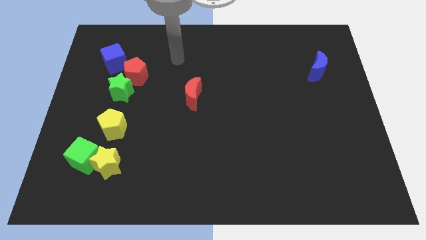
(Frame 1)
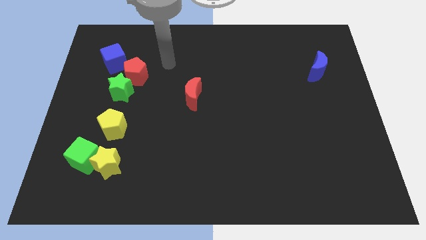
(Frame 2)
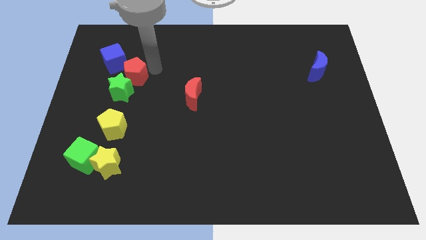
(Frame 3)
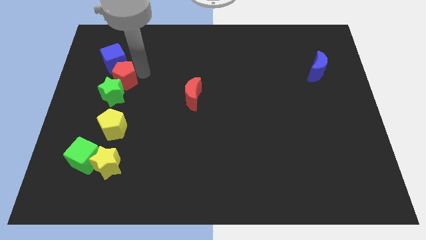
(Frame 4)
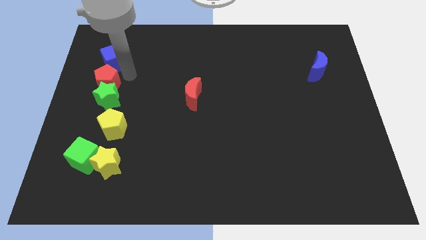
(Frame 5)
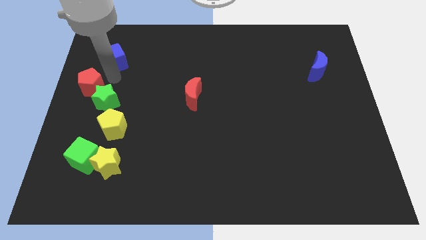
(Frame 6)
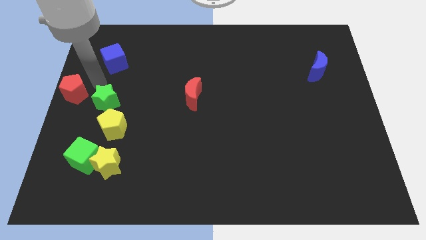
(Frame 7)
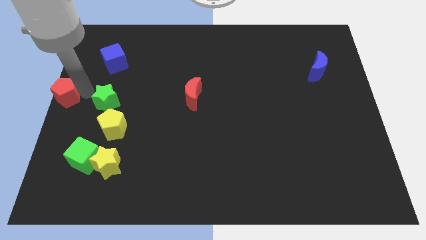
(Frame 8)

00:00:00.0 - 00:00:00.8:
separate the green star from the red pentagon

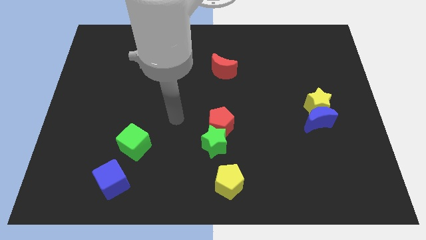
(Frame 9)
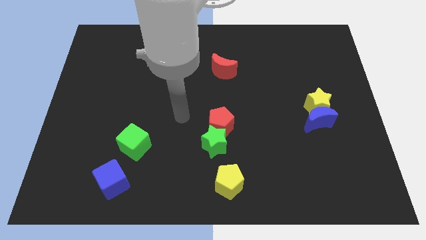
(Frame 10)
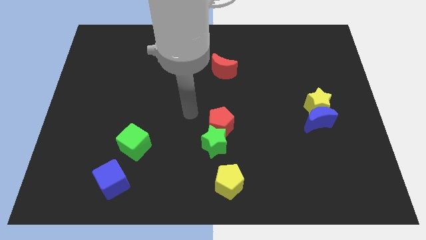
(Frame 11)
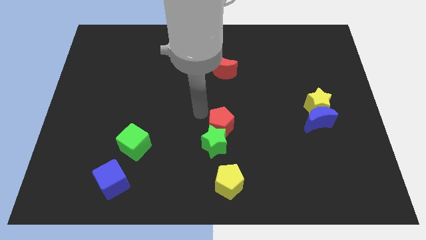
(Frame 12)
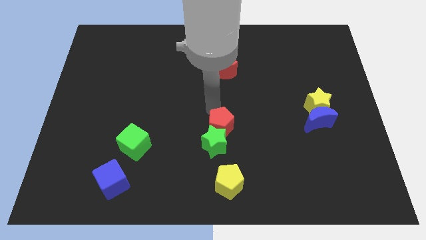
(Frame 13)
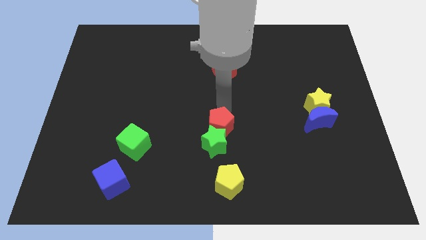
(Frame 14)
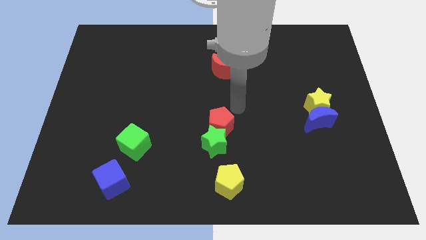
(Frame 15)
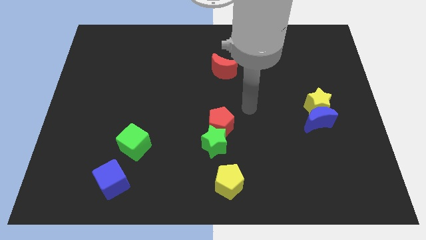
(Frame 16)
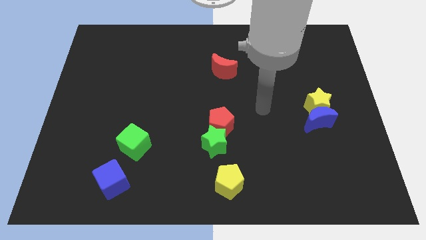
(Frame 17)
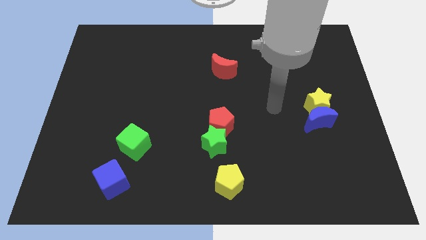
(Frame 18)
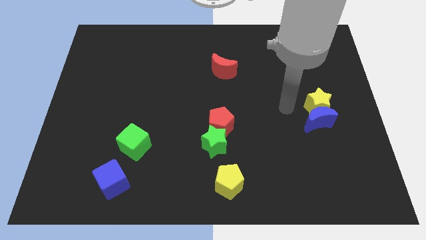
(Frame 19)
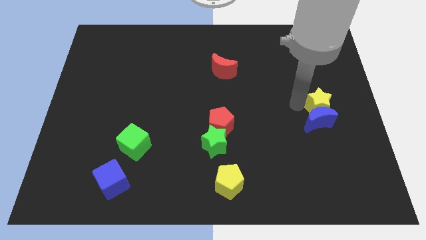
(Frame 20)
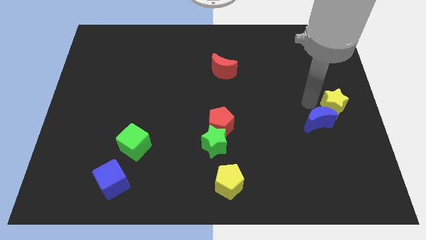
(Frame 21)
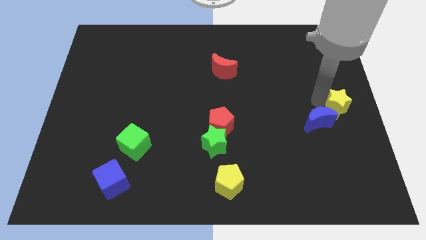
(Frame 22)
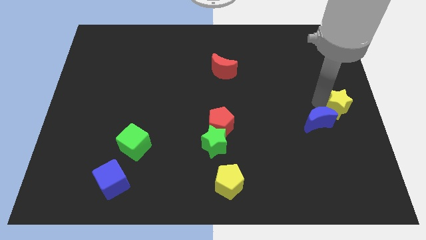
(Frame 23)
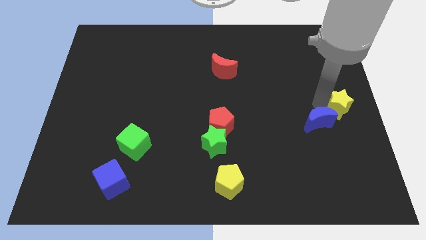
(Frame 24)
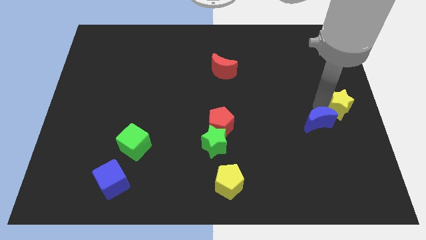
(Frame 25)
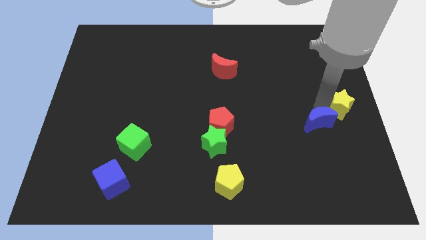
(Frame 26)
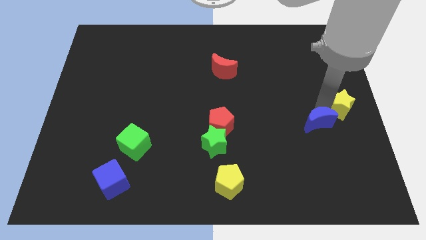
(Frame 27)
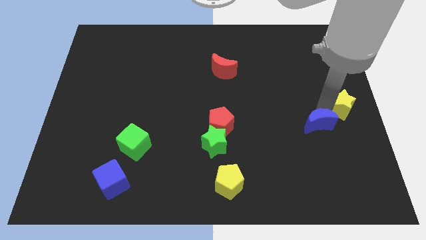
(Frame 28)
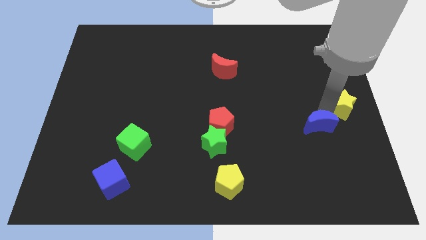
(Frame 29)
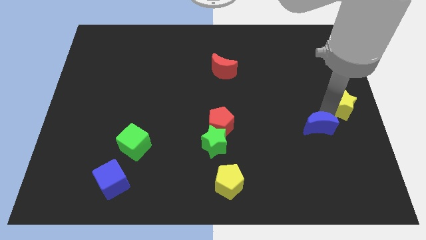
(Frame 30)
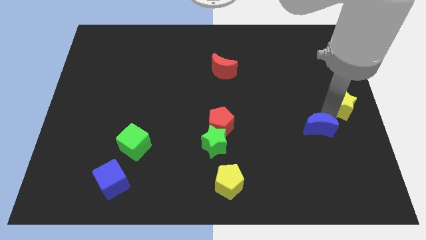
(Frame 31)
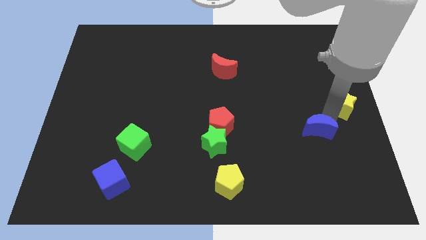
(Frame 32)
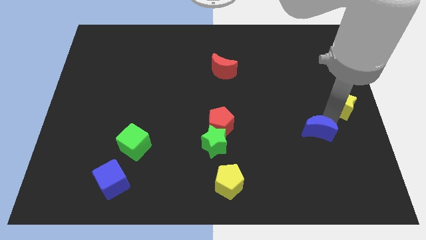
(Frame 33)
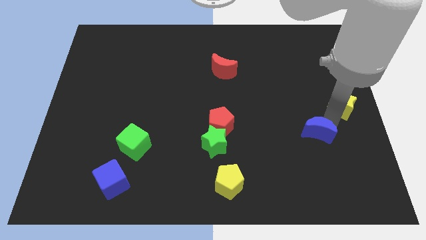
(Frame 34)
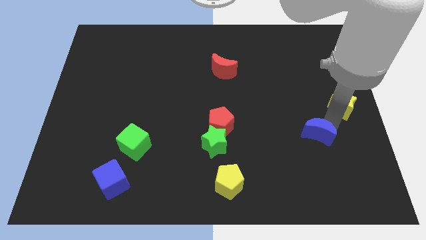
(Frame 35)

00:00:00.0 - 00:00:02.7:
pull the blue moon apart from the yellow star

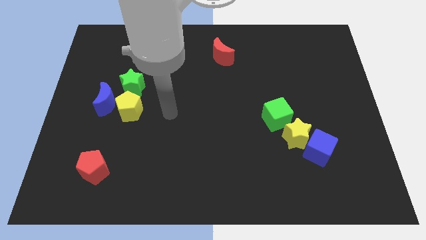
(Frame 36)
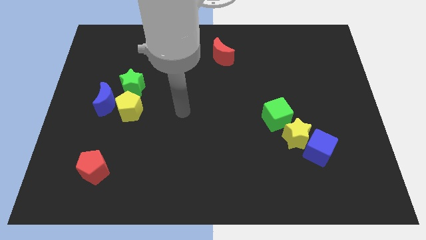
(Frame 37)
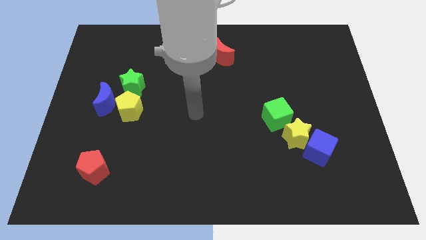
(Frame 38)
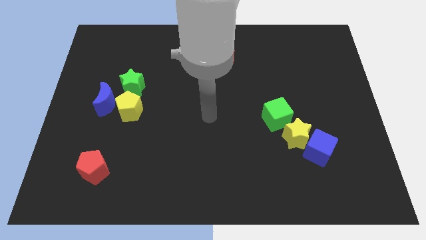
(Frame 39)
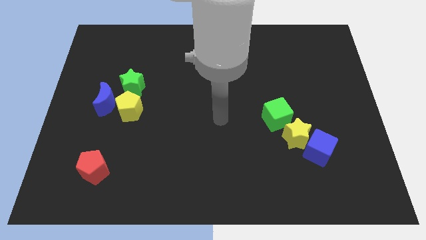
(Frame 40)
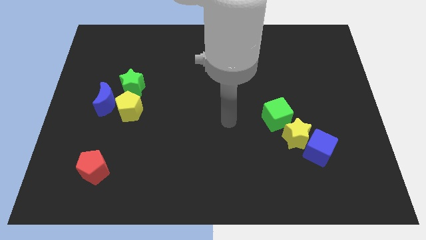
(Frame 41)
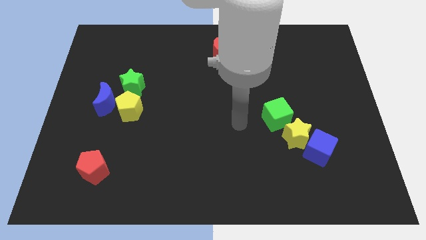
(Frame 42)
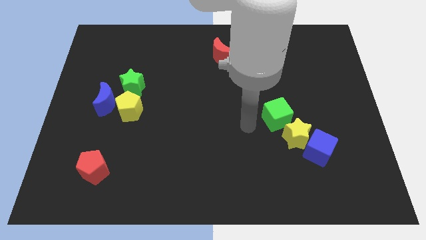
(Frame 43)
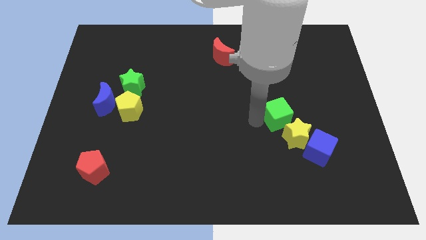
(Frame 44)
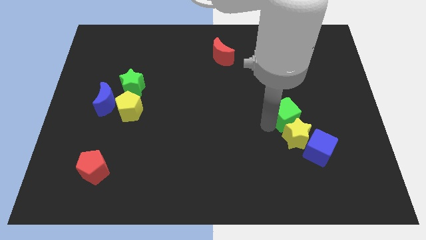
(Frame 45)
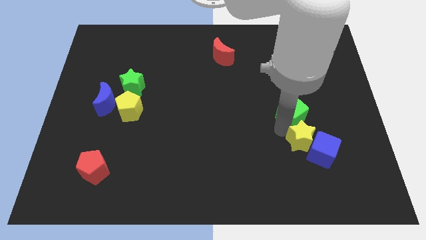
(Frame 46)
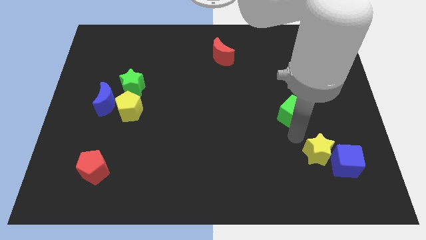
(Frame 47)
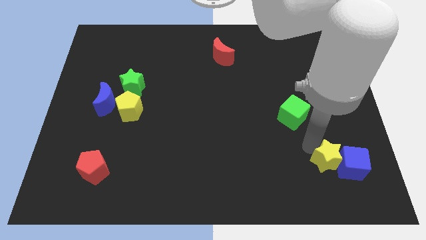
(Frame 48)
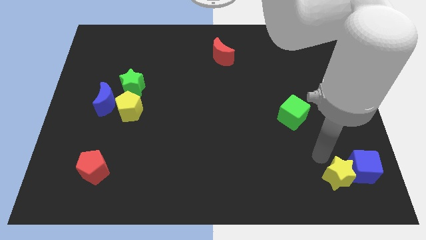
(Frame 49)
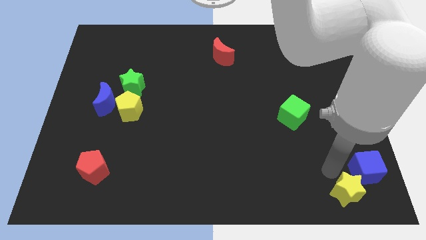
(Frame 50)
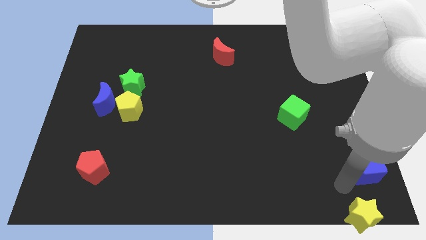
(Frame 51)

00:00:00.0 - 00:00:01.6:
pull the blue cube apart from the yellow star

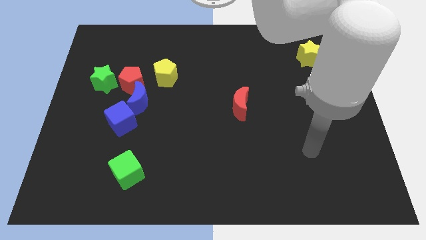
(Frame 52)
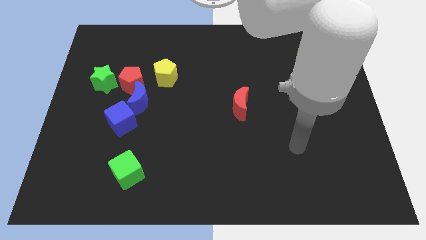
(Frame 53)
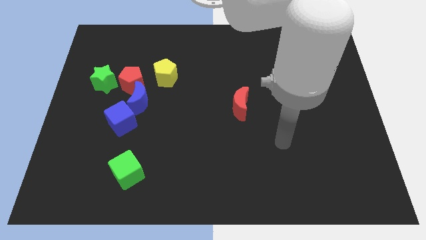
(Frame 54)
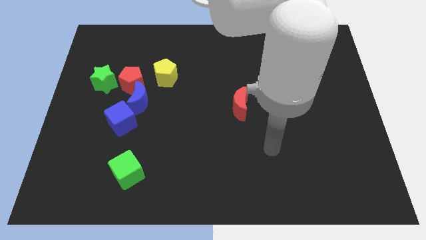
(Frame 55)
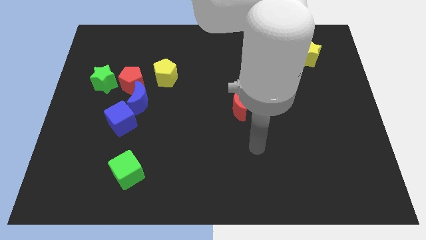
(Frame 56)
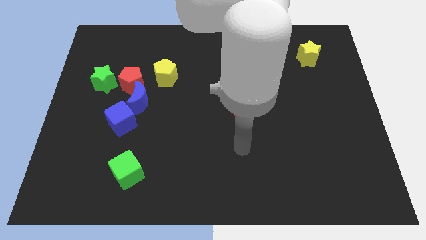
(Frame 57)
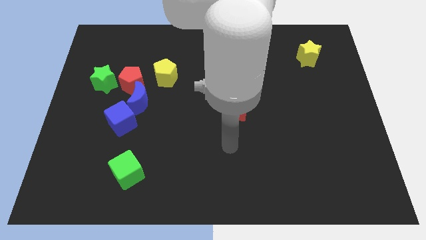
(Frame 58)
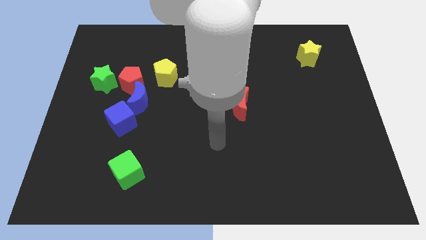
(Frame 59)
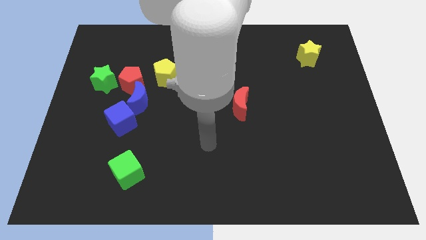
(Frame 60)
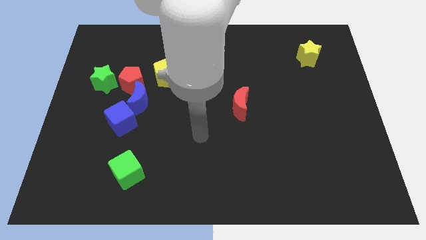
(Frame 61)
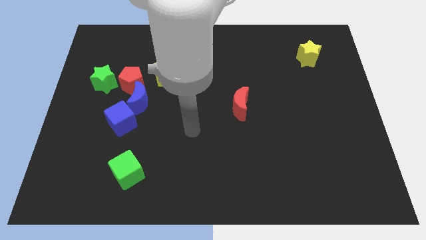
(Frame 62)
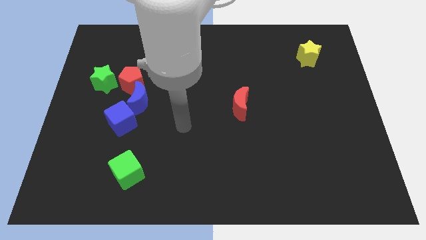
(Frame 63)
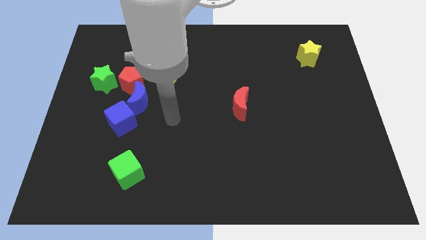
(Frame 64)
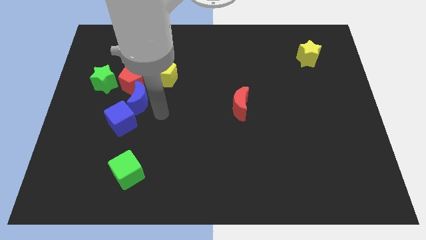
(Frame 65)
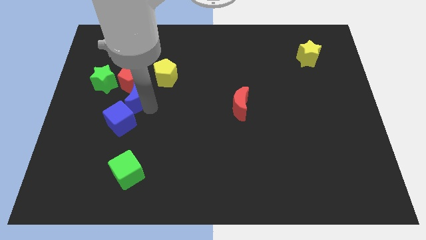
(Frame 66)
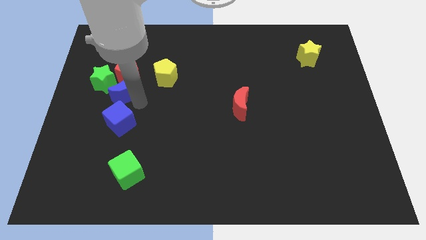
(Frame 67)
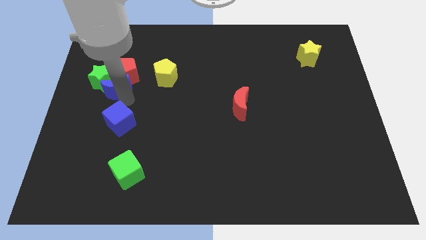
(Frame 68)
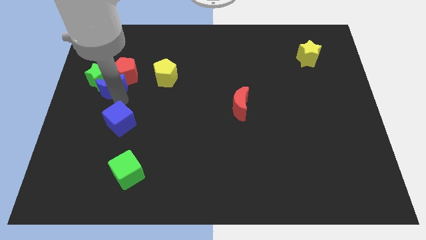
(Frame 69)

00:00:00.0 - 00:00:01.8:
pull the blue cube apart from the blue moon

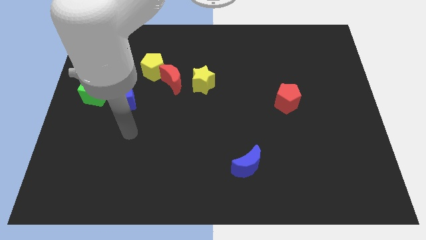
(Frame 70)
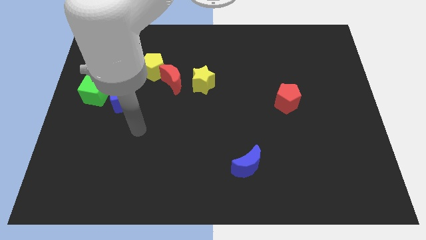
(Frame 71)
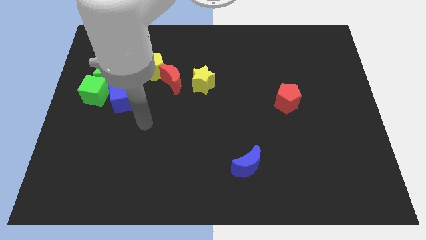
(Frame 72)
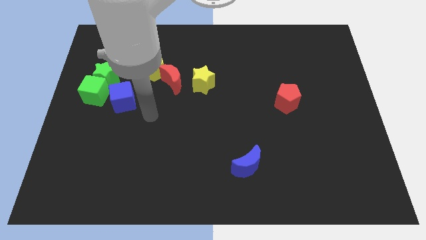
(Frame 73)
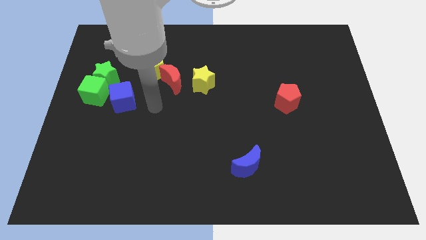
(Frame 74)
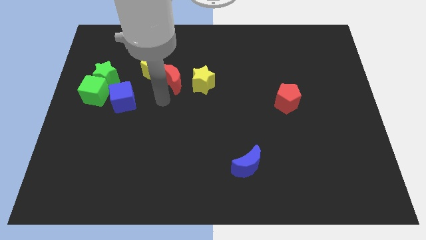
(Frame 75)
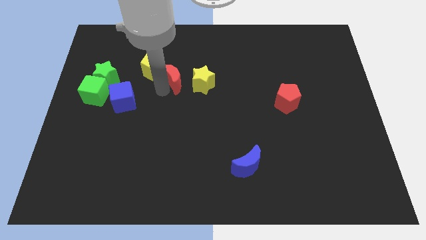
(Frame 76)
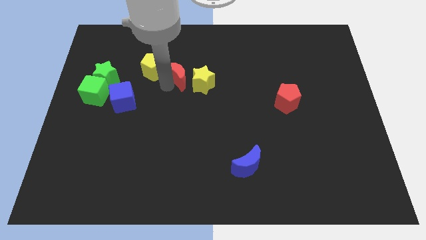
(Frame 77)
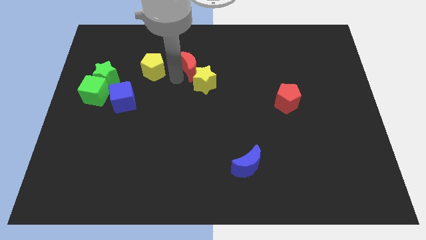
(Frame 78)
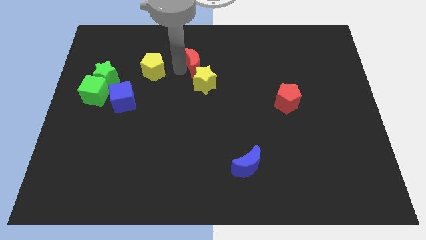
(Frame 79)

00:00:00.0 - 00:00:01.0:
move the yellow pentagon away from the red moon

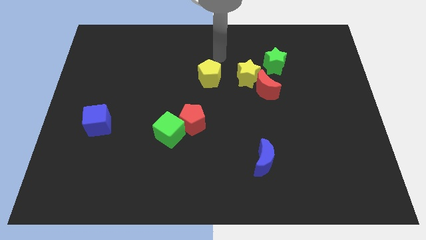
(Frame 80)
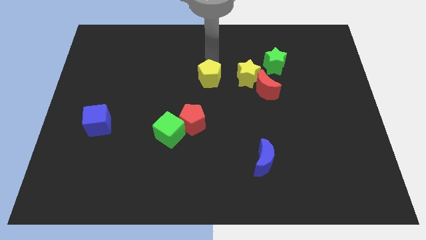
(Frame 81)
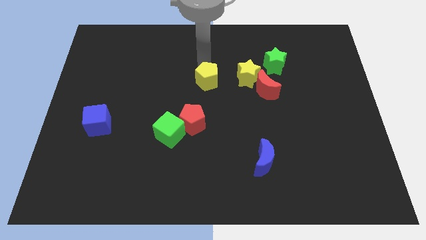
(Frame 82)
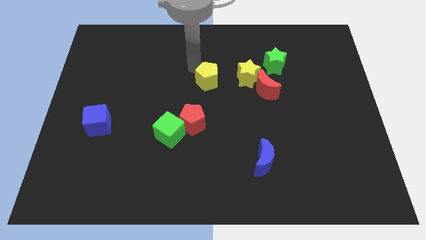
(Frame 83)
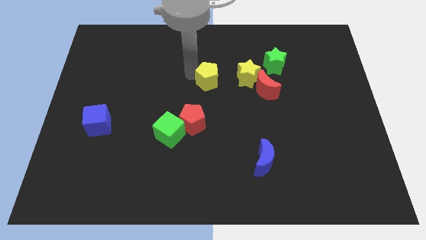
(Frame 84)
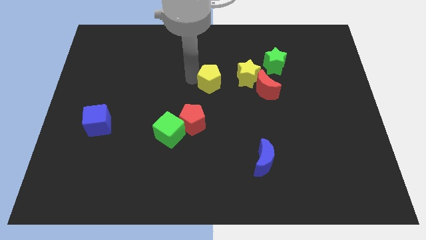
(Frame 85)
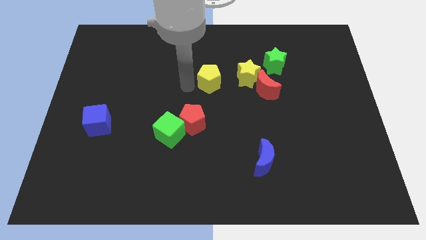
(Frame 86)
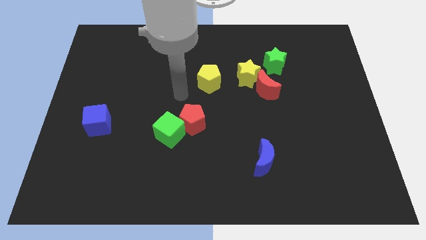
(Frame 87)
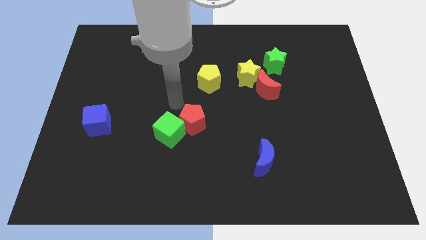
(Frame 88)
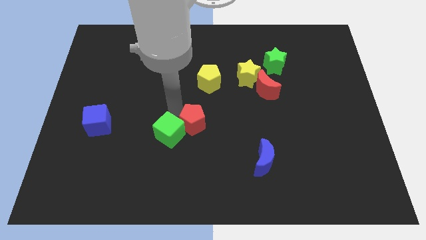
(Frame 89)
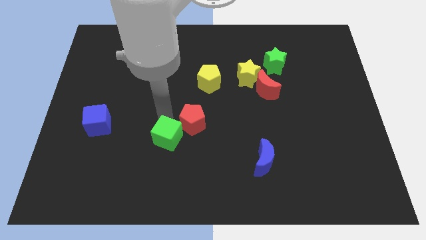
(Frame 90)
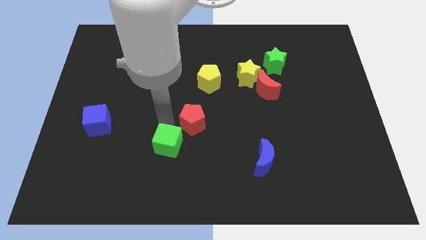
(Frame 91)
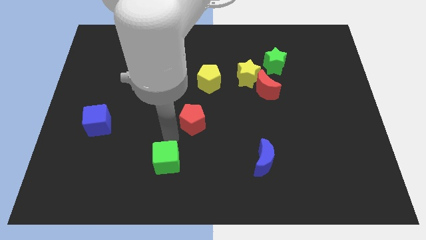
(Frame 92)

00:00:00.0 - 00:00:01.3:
move the red pentagon away from the green cube
